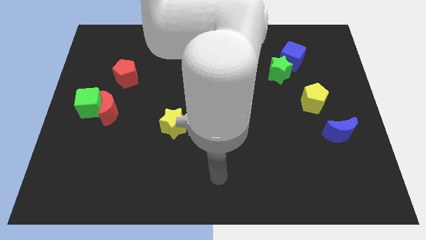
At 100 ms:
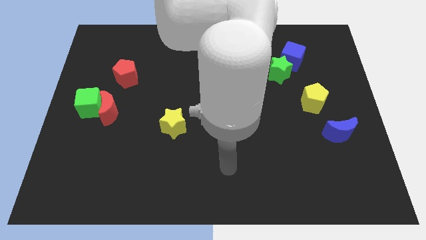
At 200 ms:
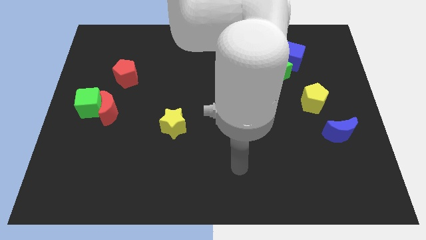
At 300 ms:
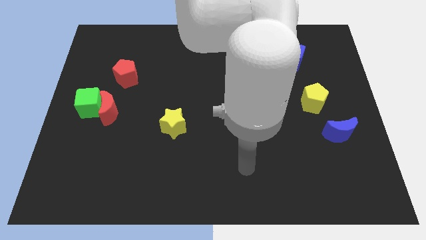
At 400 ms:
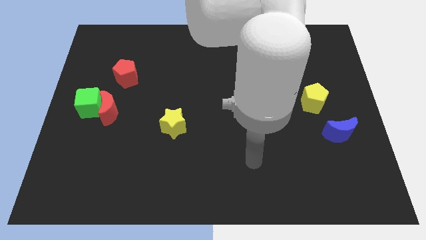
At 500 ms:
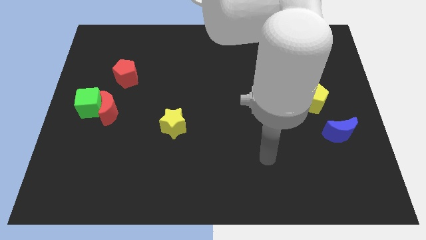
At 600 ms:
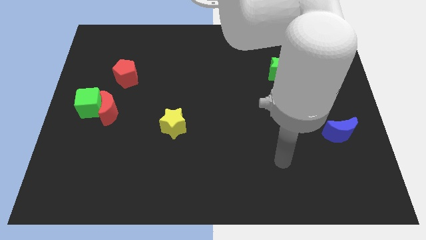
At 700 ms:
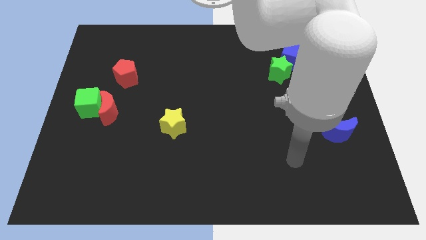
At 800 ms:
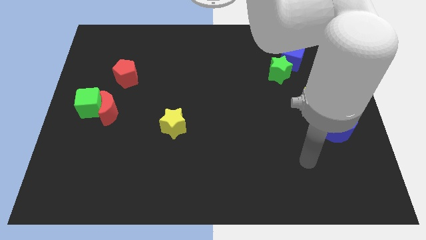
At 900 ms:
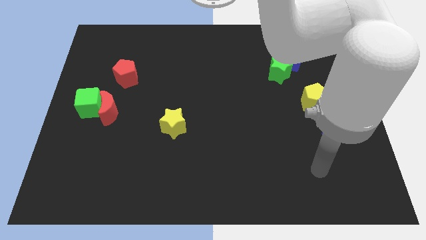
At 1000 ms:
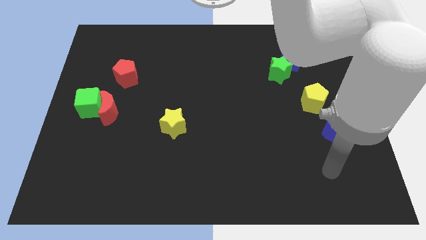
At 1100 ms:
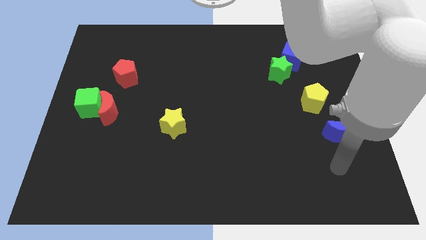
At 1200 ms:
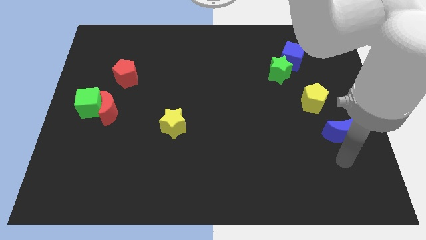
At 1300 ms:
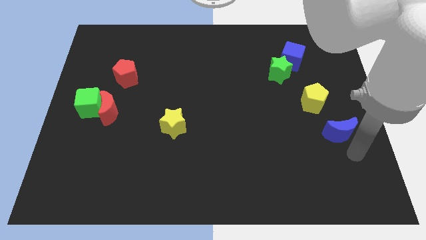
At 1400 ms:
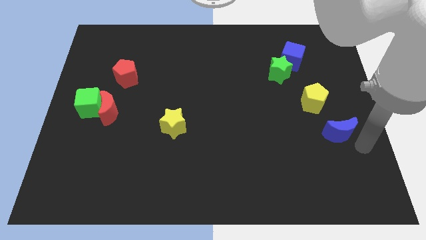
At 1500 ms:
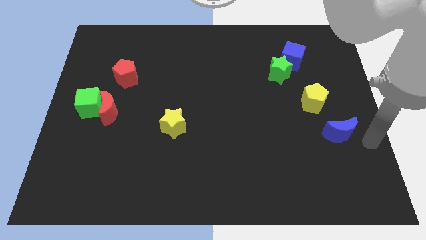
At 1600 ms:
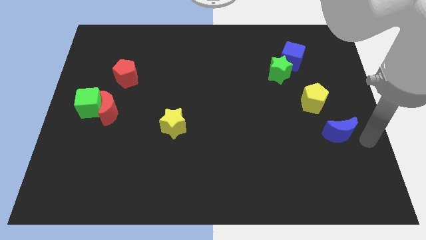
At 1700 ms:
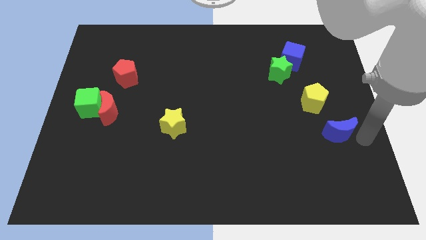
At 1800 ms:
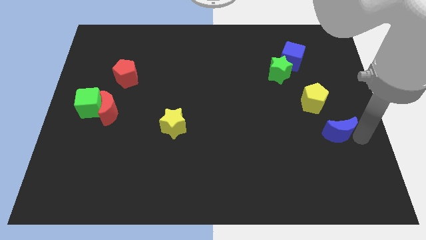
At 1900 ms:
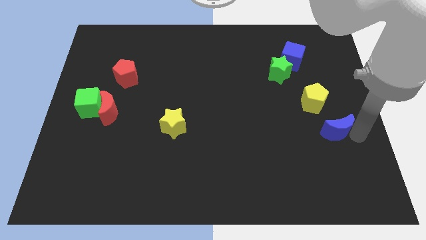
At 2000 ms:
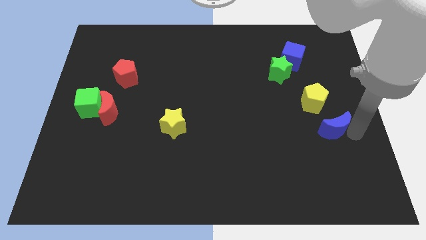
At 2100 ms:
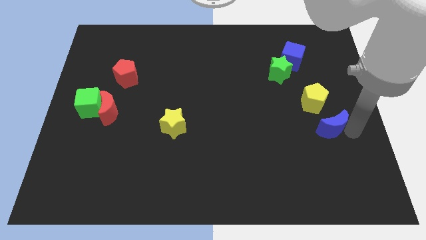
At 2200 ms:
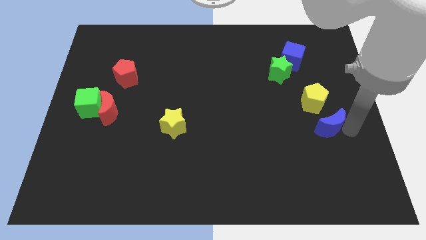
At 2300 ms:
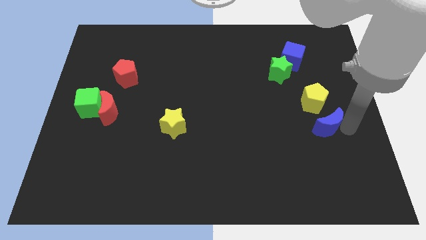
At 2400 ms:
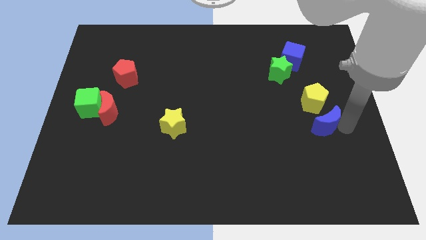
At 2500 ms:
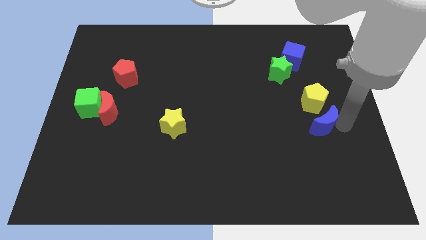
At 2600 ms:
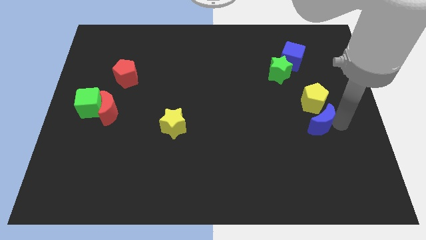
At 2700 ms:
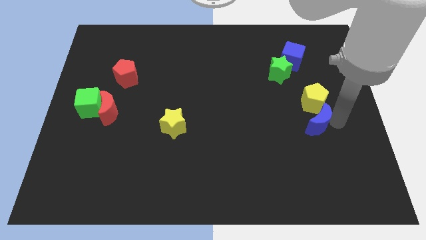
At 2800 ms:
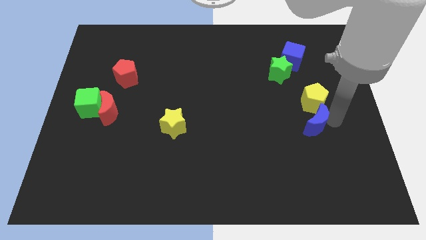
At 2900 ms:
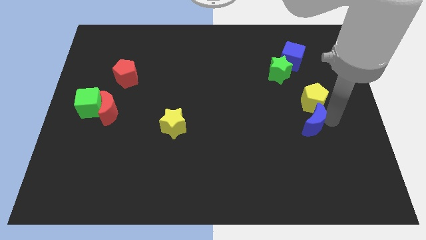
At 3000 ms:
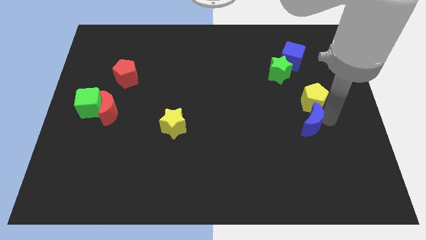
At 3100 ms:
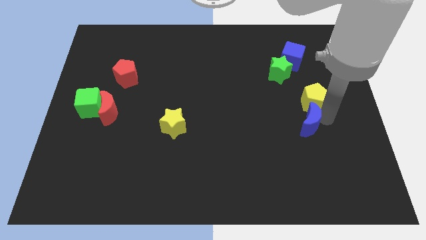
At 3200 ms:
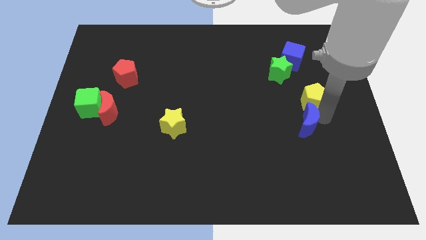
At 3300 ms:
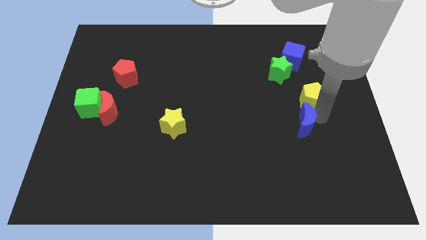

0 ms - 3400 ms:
slide the blue moon to the left slightly

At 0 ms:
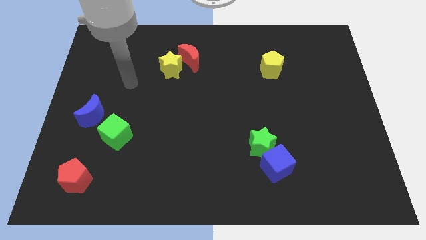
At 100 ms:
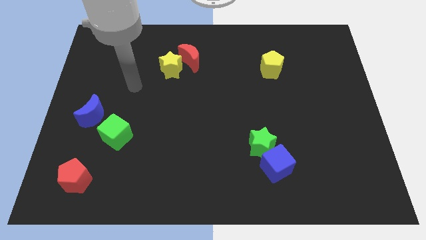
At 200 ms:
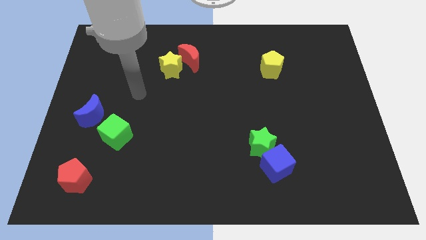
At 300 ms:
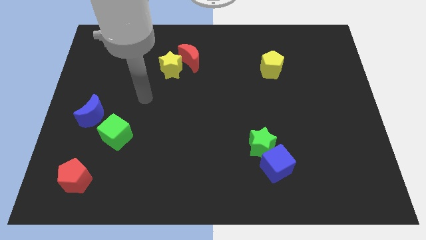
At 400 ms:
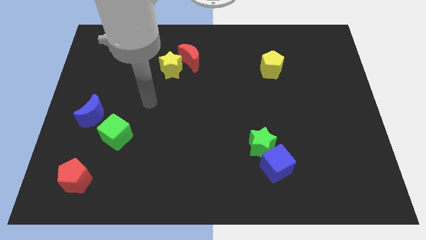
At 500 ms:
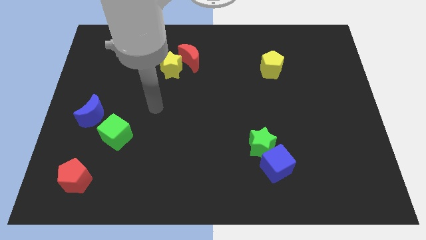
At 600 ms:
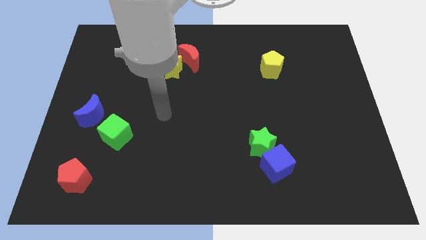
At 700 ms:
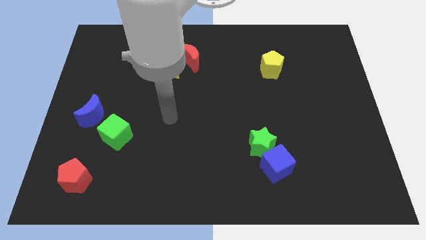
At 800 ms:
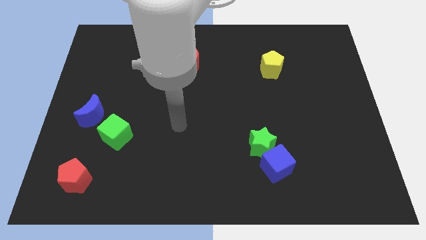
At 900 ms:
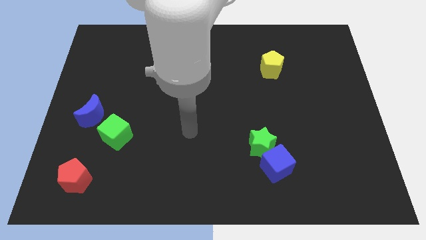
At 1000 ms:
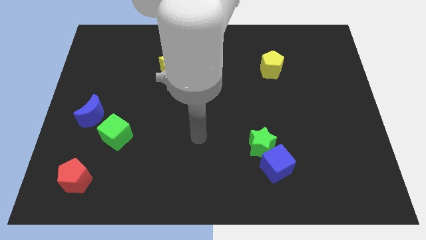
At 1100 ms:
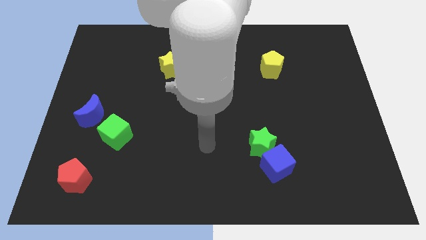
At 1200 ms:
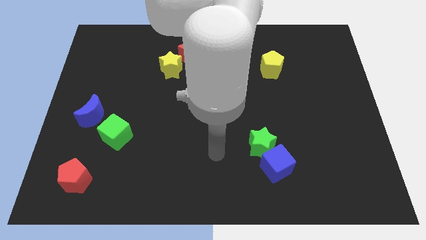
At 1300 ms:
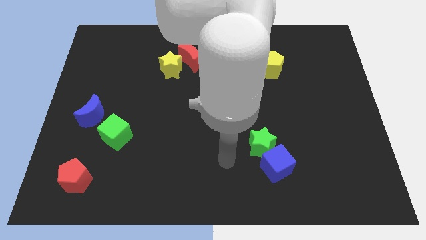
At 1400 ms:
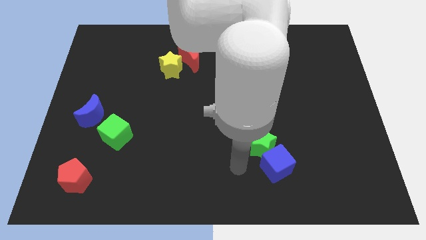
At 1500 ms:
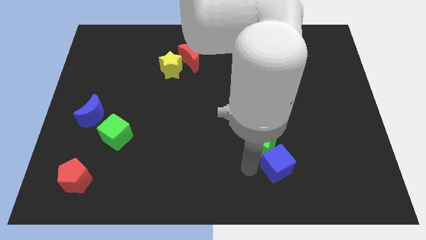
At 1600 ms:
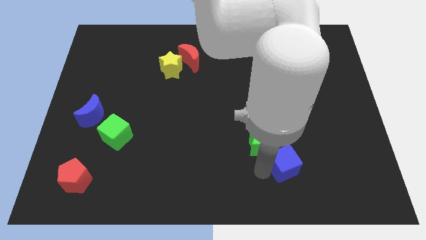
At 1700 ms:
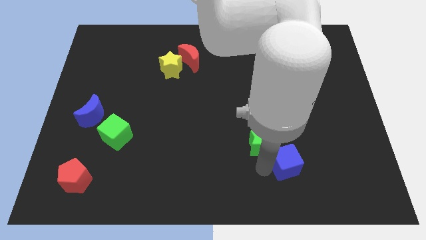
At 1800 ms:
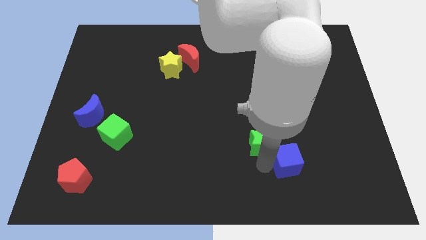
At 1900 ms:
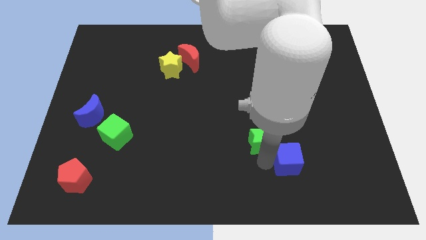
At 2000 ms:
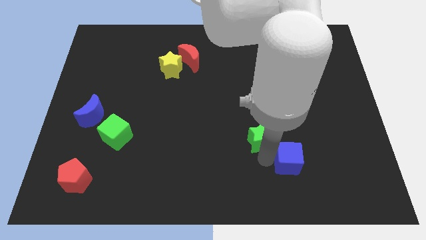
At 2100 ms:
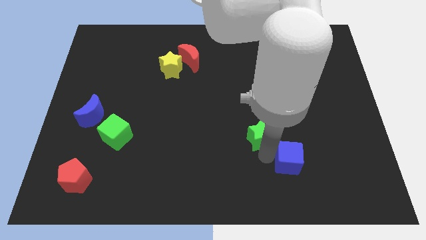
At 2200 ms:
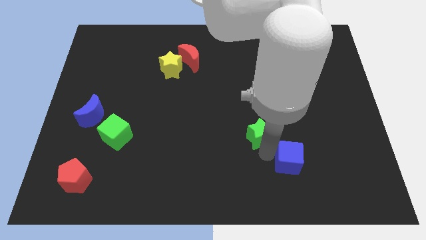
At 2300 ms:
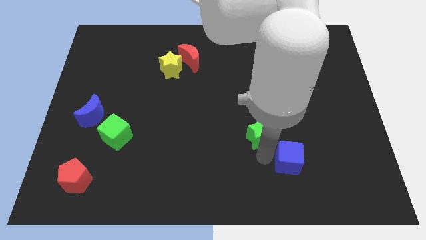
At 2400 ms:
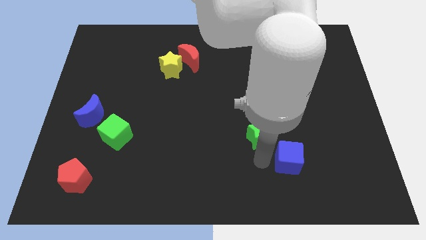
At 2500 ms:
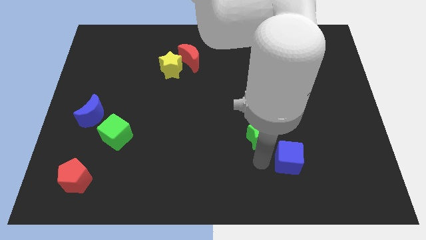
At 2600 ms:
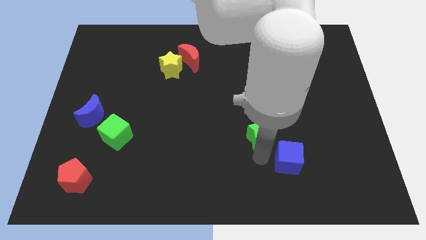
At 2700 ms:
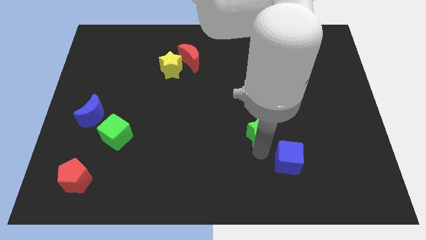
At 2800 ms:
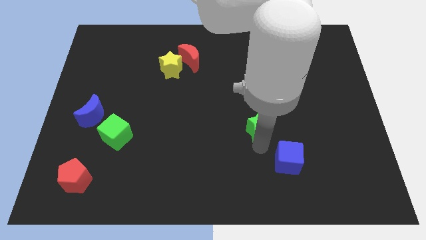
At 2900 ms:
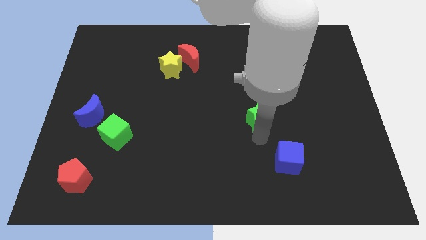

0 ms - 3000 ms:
move the green star up slightly

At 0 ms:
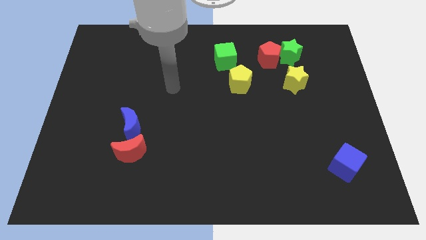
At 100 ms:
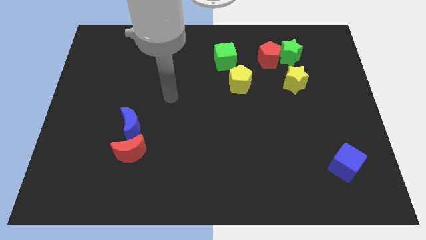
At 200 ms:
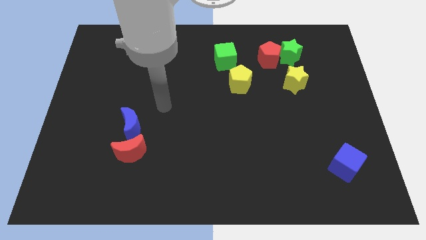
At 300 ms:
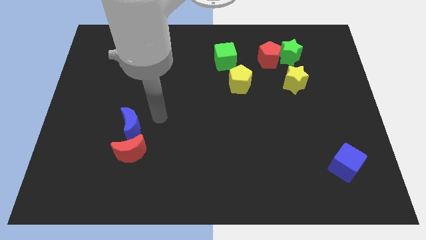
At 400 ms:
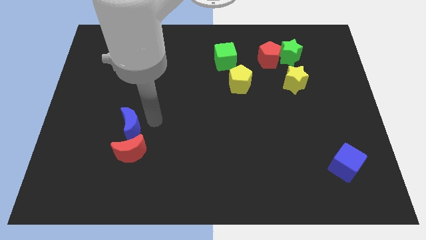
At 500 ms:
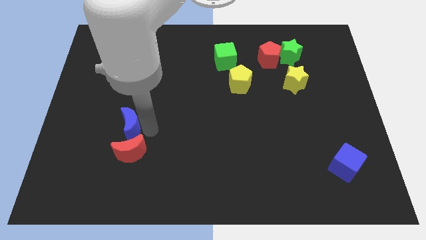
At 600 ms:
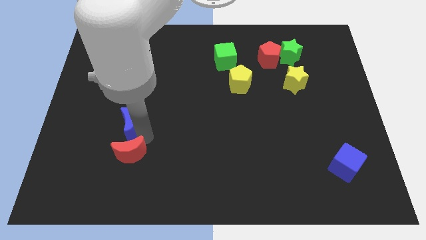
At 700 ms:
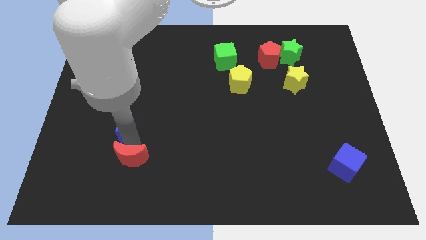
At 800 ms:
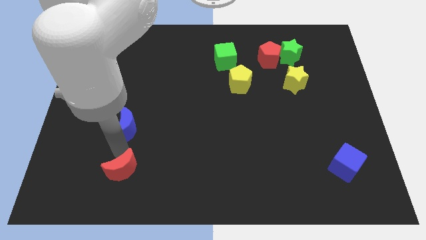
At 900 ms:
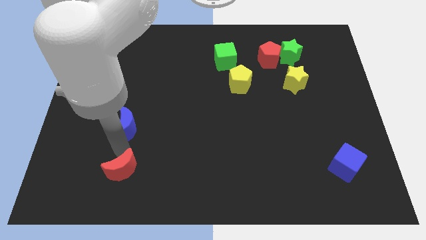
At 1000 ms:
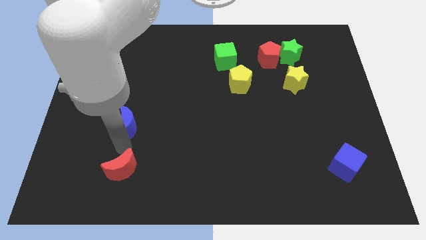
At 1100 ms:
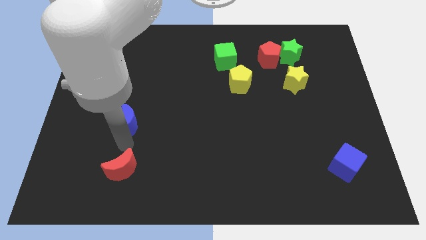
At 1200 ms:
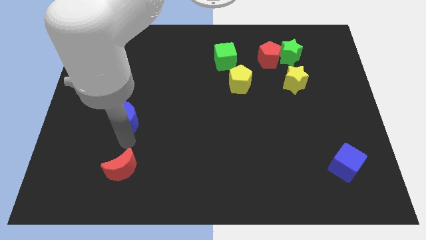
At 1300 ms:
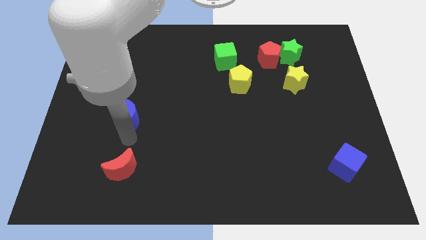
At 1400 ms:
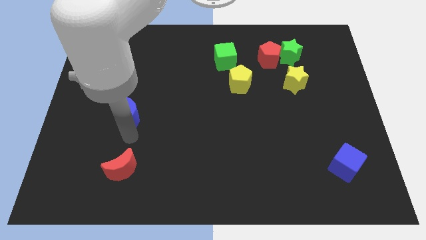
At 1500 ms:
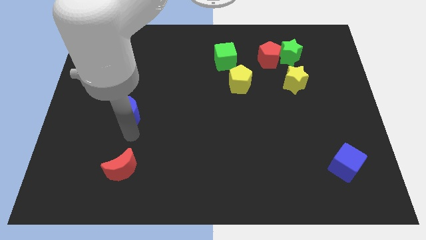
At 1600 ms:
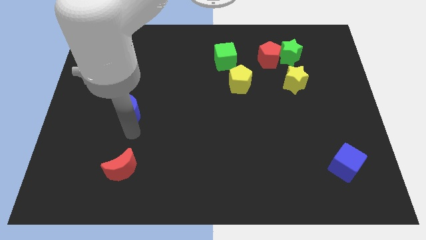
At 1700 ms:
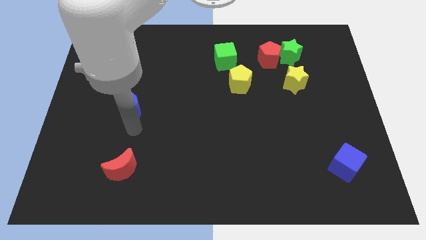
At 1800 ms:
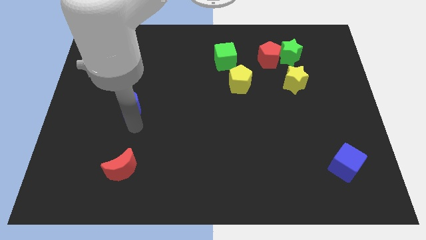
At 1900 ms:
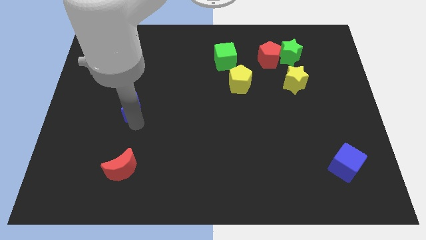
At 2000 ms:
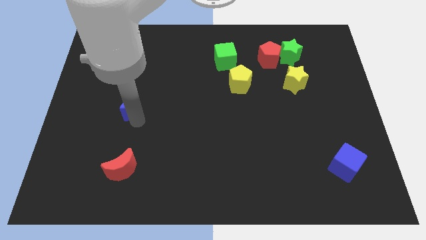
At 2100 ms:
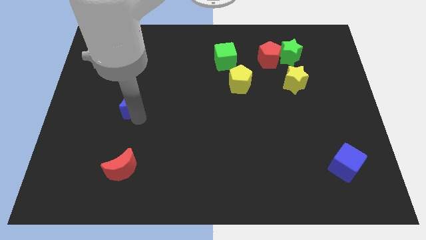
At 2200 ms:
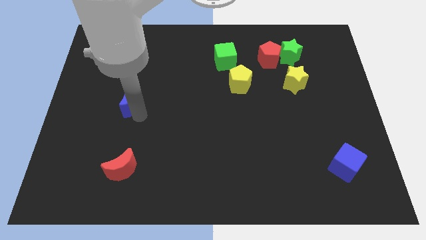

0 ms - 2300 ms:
move the blue moon a little bit up
